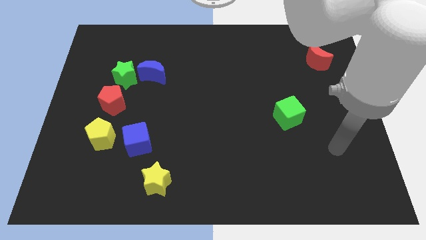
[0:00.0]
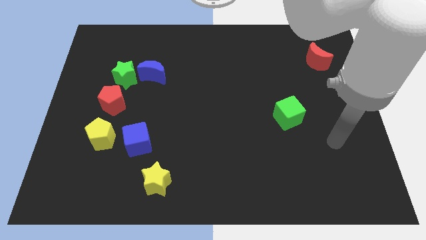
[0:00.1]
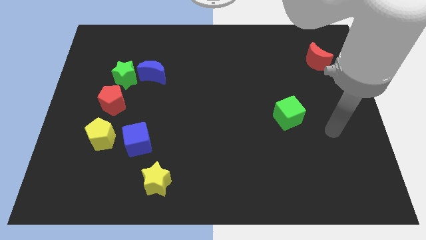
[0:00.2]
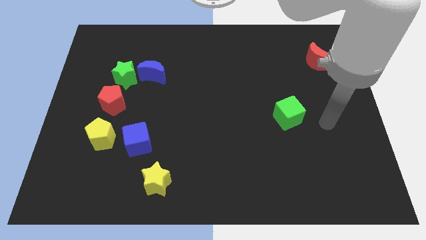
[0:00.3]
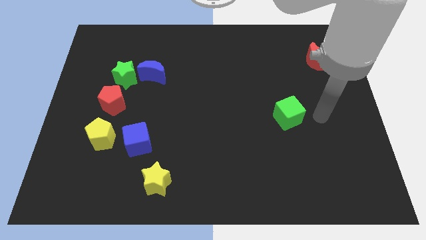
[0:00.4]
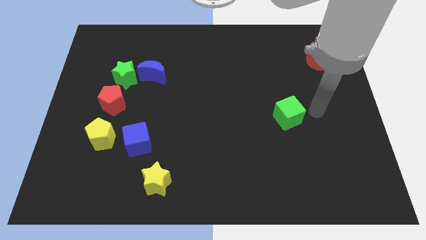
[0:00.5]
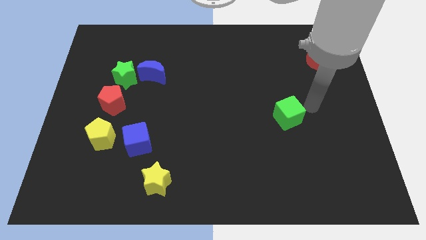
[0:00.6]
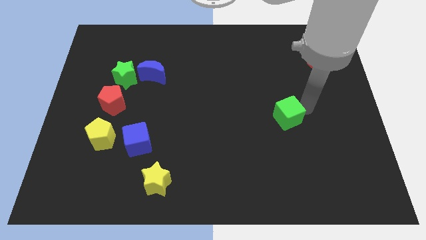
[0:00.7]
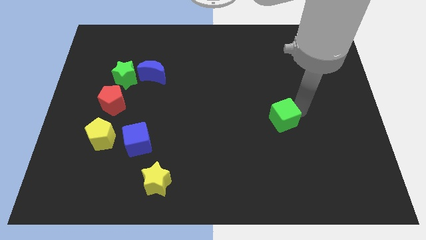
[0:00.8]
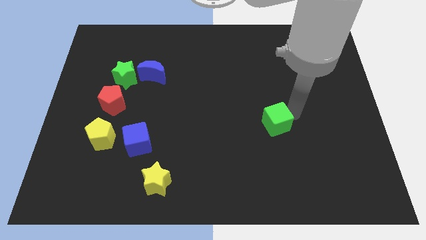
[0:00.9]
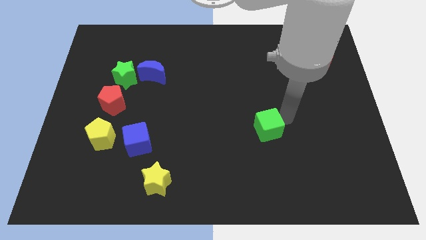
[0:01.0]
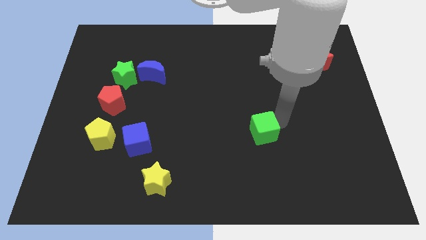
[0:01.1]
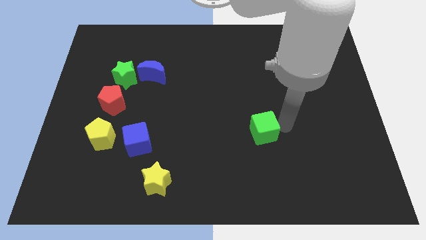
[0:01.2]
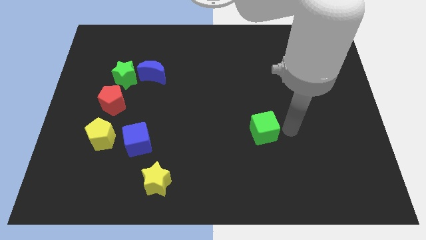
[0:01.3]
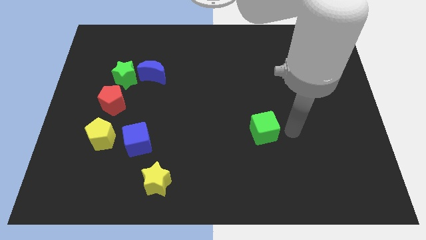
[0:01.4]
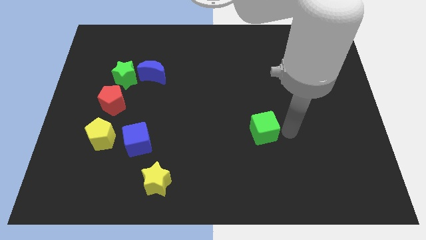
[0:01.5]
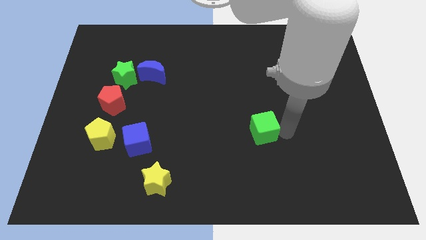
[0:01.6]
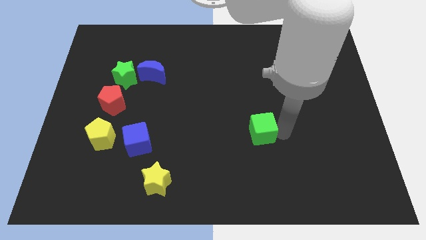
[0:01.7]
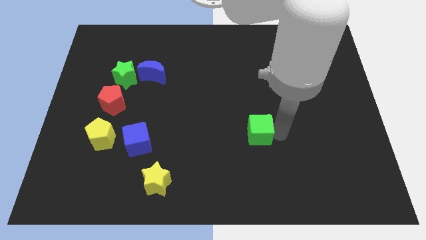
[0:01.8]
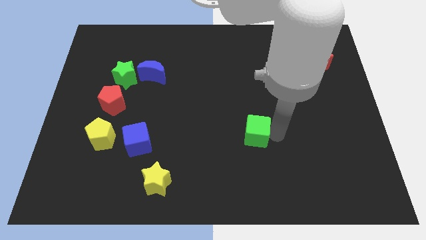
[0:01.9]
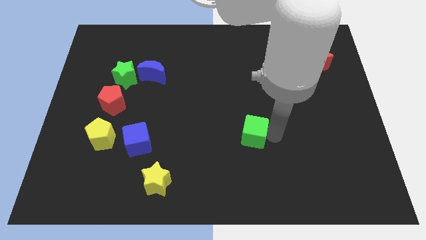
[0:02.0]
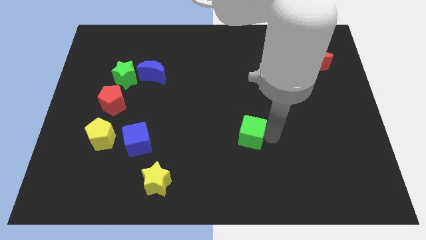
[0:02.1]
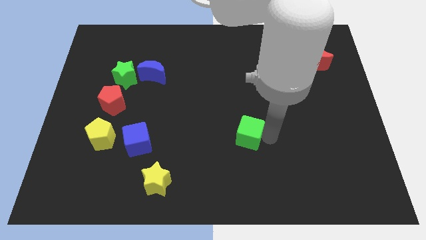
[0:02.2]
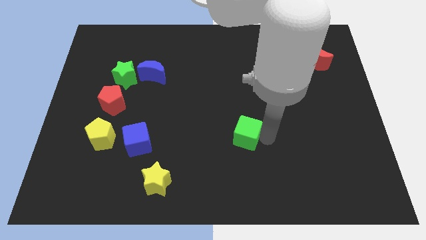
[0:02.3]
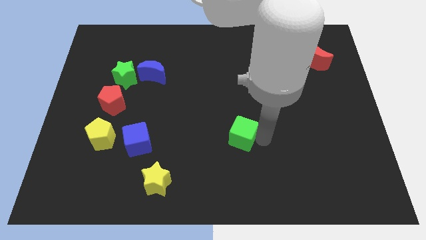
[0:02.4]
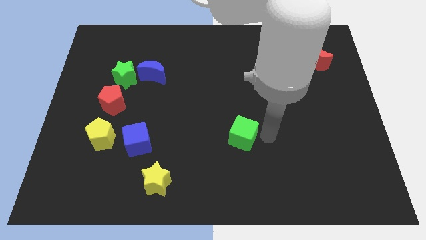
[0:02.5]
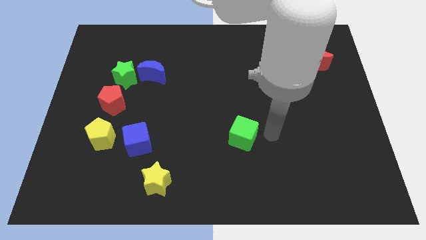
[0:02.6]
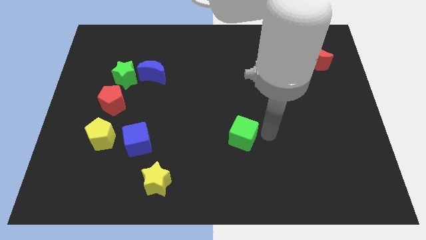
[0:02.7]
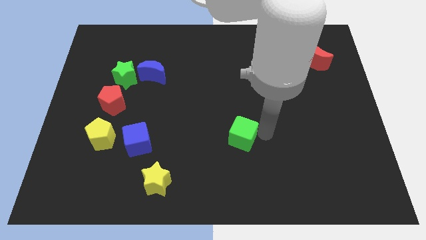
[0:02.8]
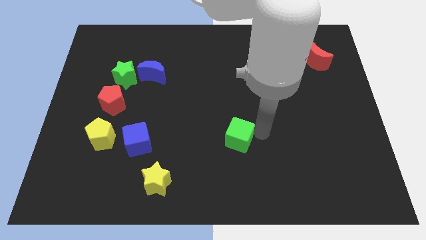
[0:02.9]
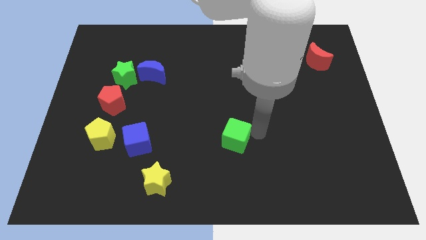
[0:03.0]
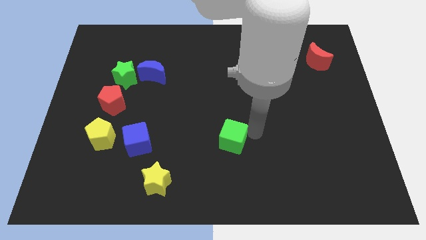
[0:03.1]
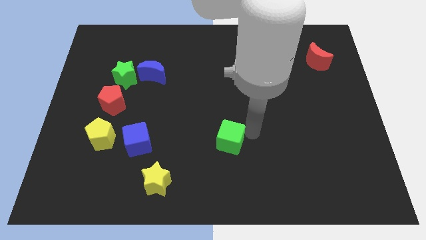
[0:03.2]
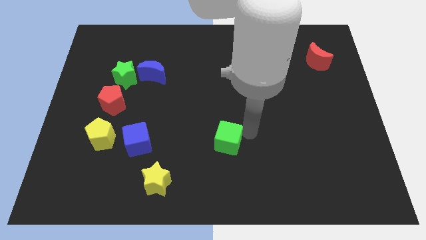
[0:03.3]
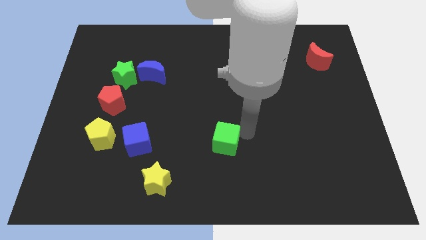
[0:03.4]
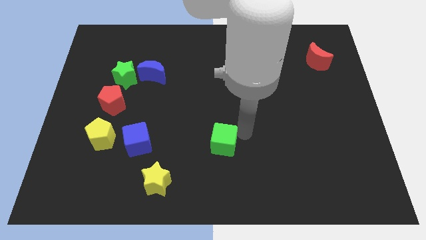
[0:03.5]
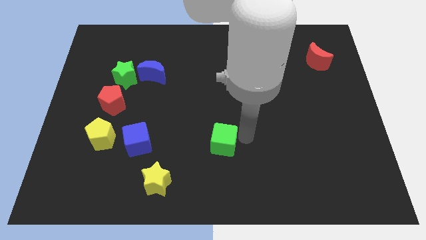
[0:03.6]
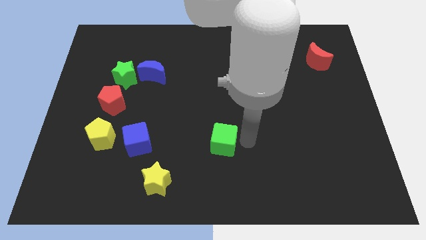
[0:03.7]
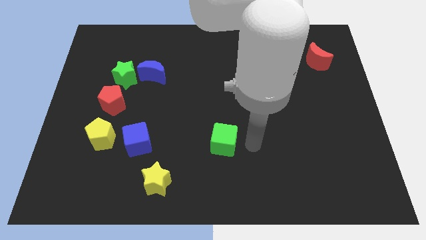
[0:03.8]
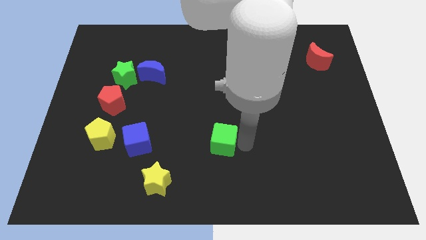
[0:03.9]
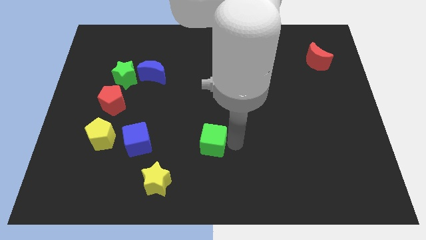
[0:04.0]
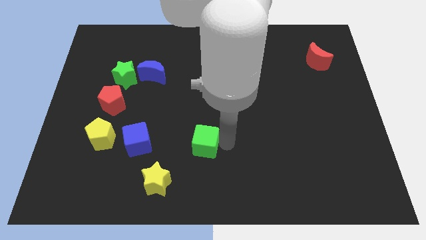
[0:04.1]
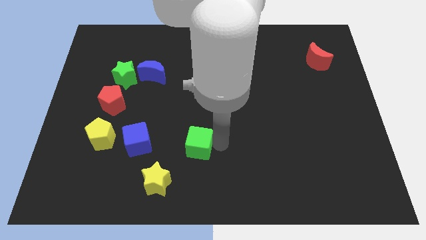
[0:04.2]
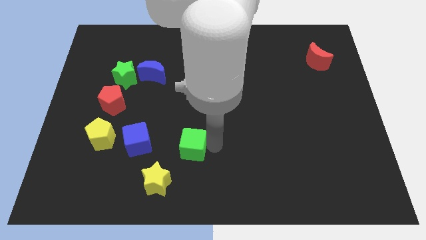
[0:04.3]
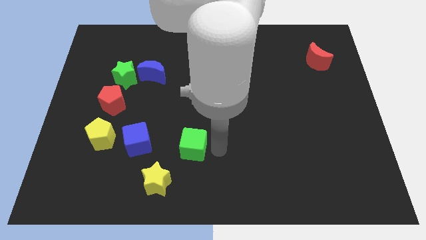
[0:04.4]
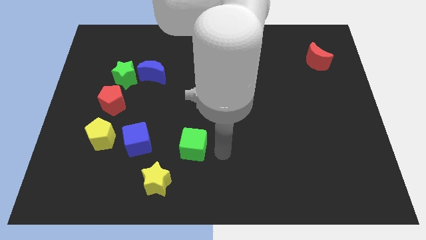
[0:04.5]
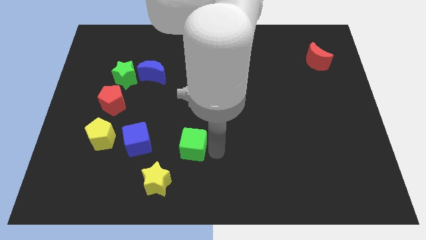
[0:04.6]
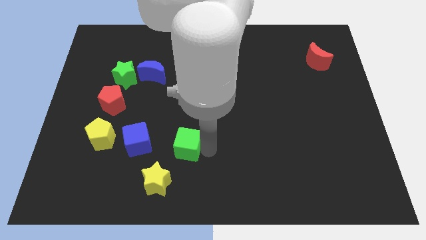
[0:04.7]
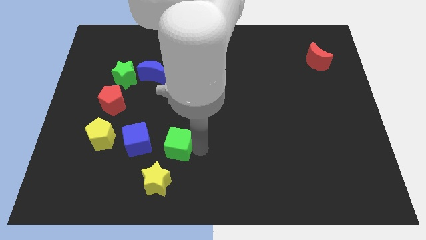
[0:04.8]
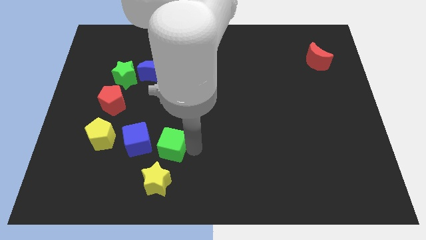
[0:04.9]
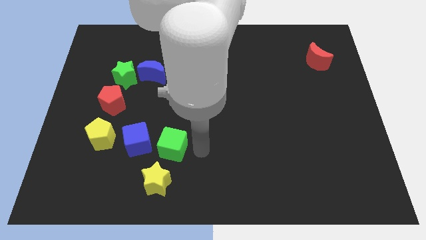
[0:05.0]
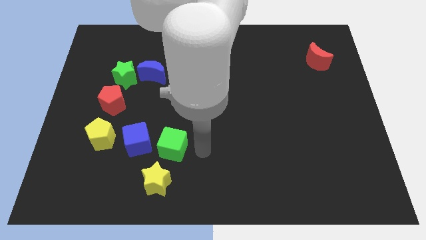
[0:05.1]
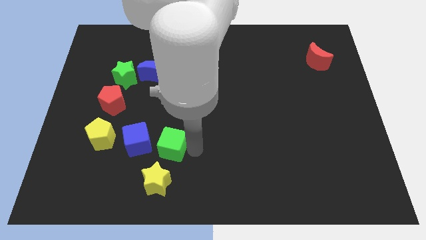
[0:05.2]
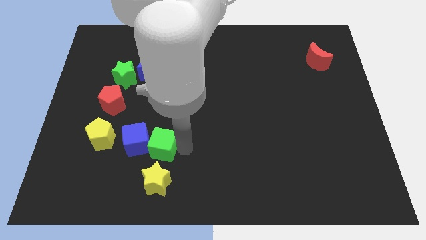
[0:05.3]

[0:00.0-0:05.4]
put the green cube close to the blue cube

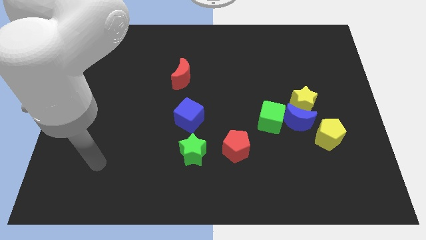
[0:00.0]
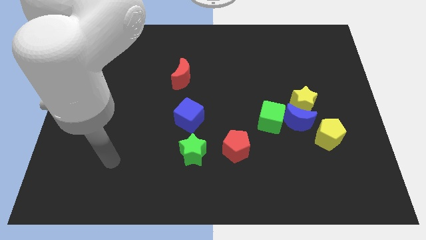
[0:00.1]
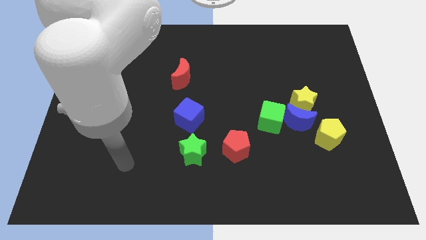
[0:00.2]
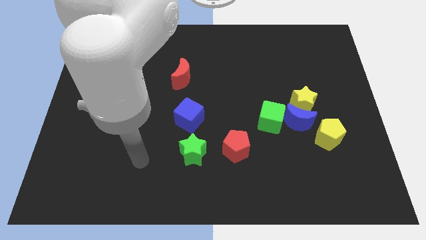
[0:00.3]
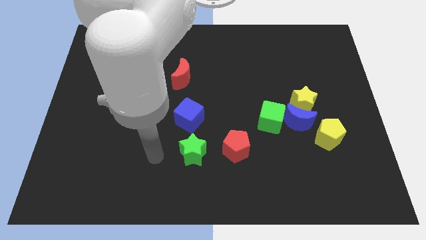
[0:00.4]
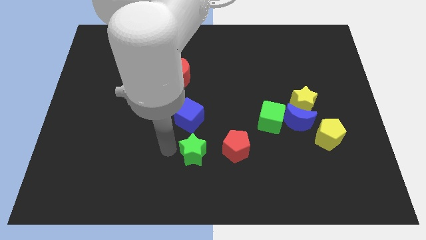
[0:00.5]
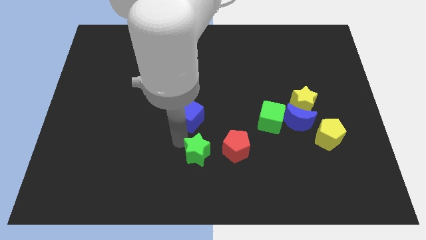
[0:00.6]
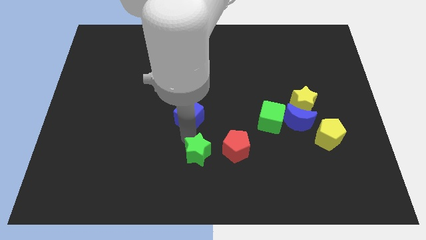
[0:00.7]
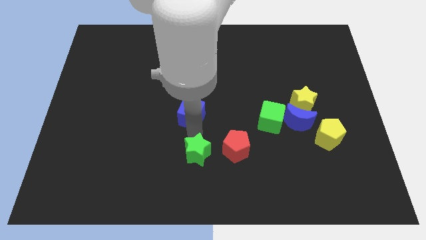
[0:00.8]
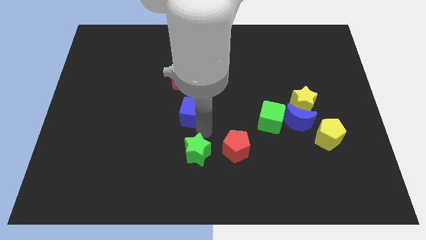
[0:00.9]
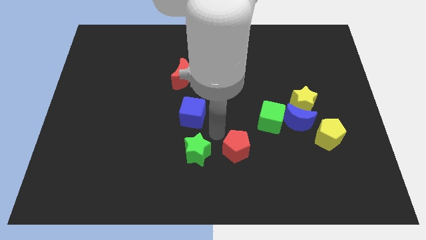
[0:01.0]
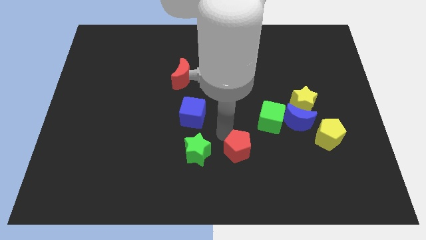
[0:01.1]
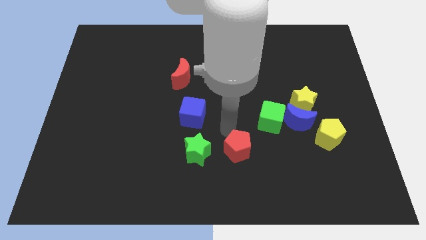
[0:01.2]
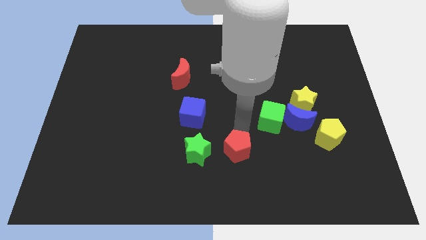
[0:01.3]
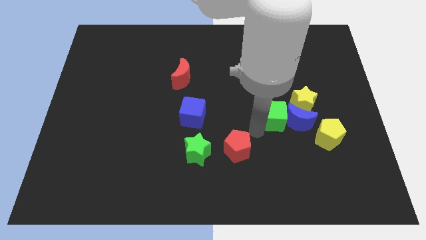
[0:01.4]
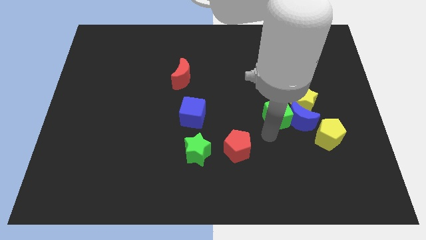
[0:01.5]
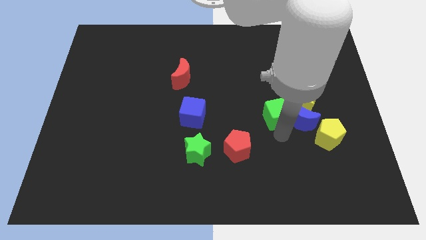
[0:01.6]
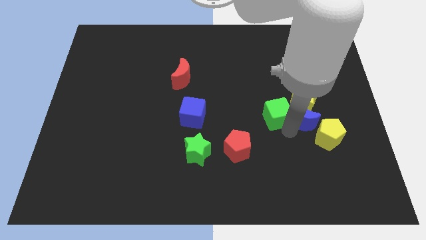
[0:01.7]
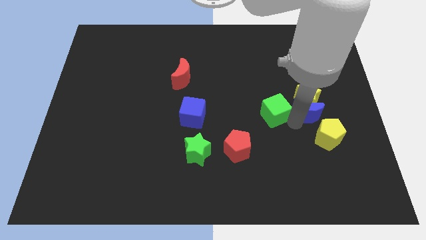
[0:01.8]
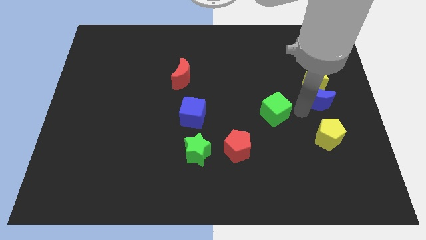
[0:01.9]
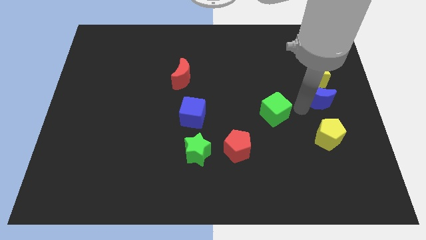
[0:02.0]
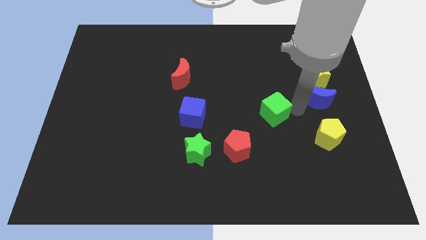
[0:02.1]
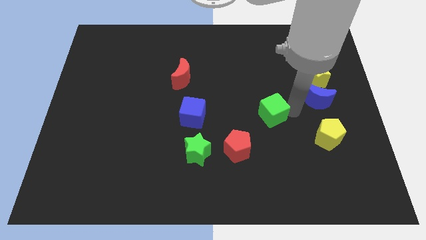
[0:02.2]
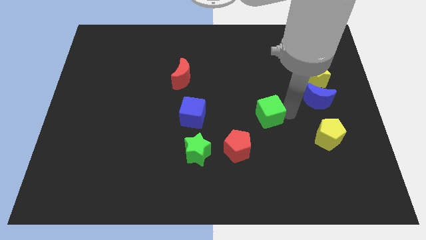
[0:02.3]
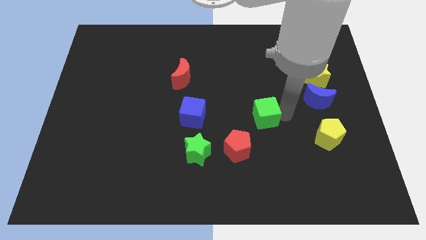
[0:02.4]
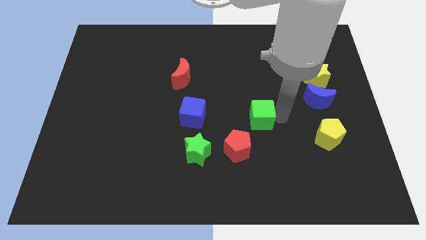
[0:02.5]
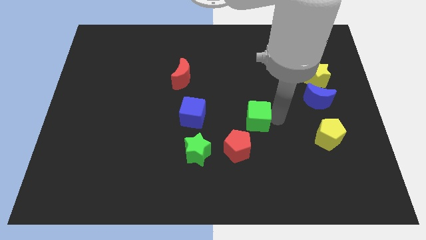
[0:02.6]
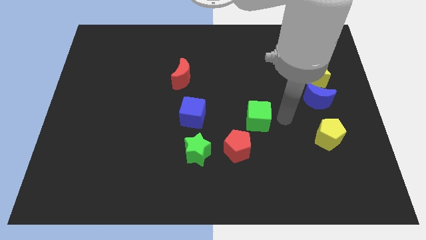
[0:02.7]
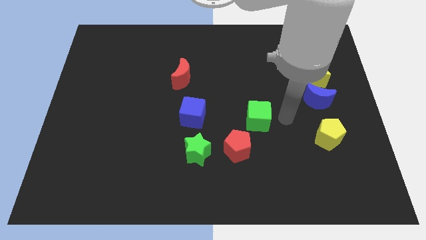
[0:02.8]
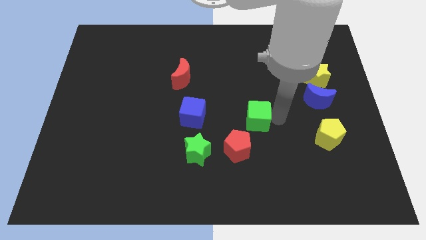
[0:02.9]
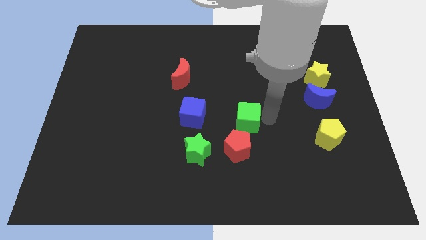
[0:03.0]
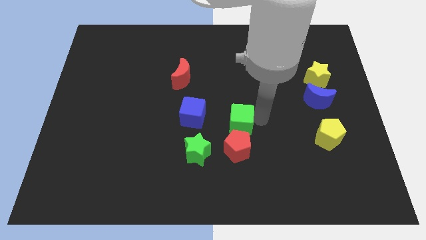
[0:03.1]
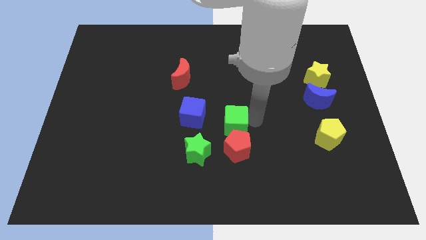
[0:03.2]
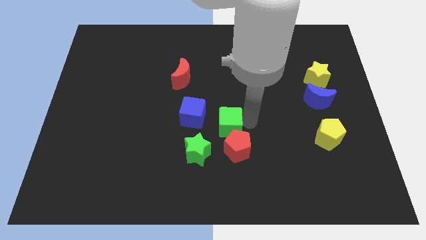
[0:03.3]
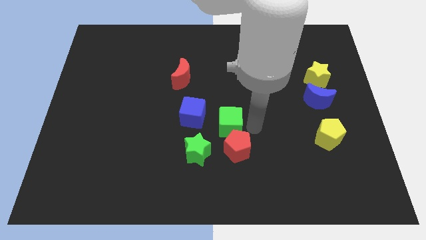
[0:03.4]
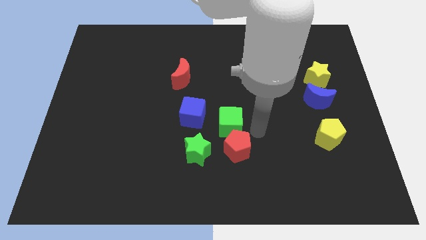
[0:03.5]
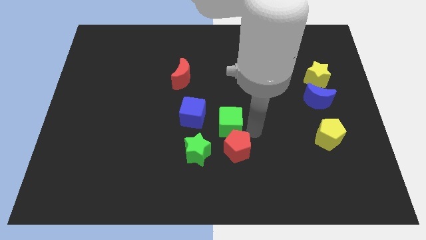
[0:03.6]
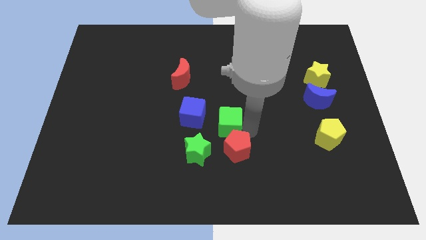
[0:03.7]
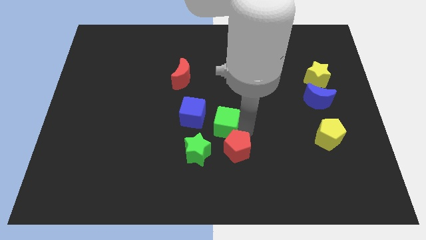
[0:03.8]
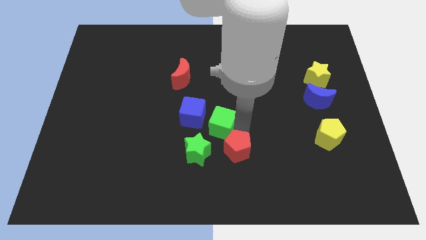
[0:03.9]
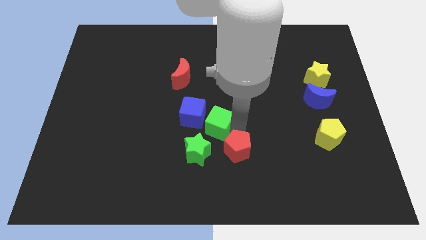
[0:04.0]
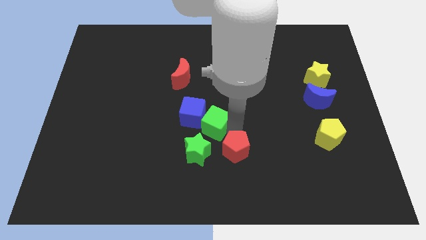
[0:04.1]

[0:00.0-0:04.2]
push the green cube next to the blue cube
